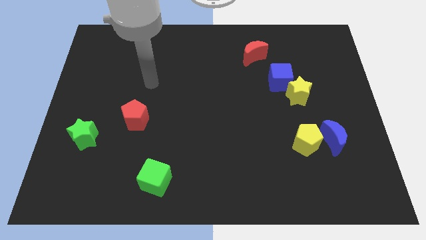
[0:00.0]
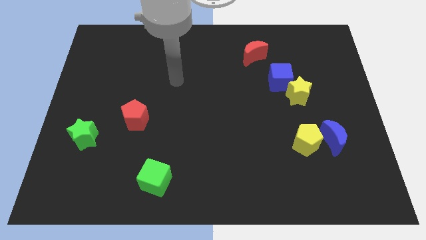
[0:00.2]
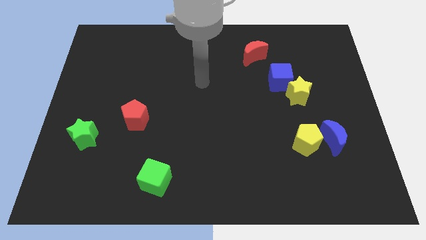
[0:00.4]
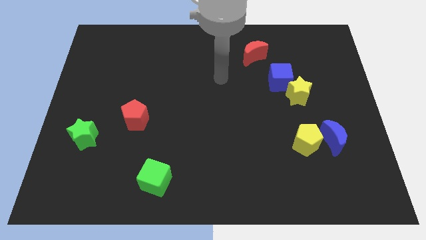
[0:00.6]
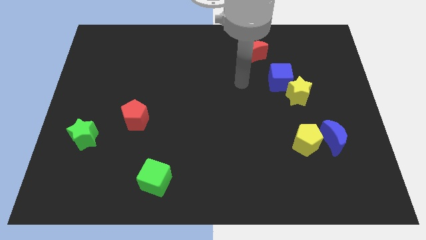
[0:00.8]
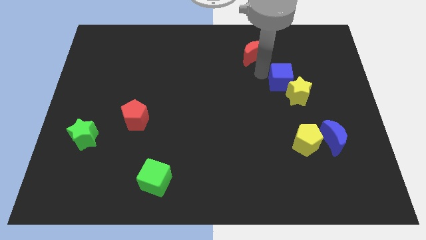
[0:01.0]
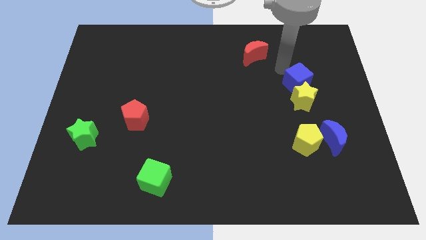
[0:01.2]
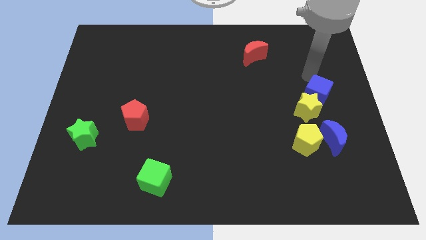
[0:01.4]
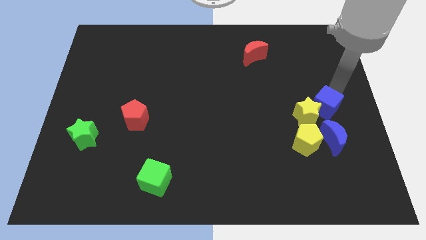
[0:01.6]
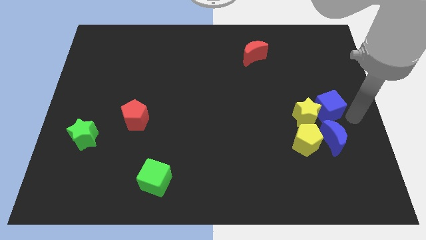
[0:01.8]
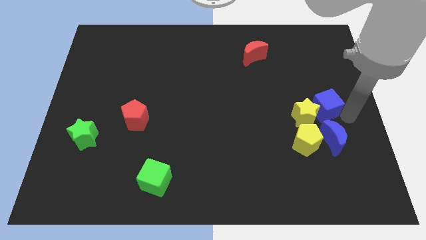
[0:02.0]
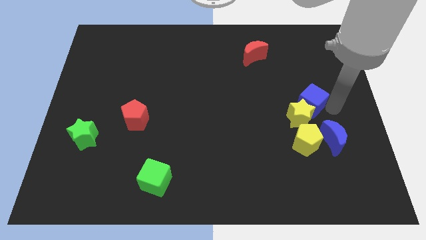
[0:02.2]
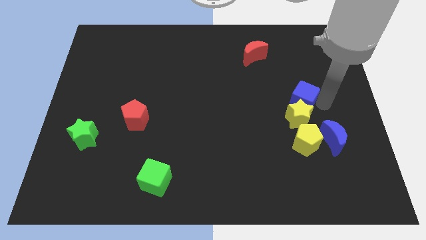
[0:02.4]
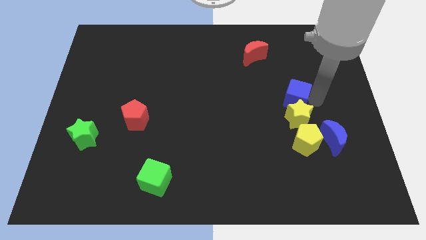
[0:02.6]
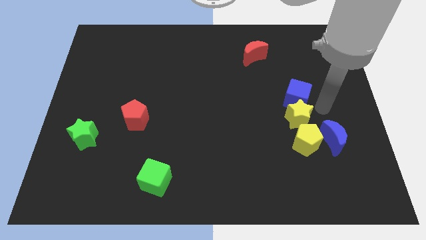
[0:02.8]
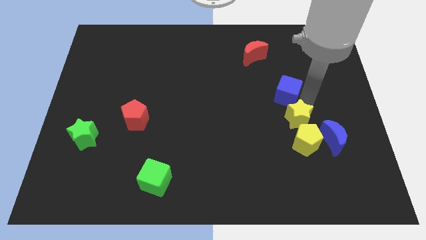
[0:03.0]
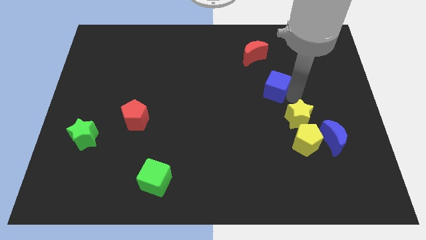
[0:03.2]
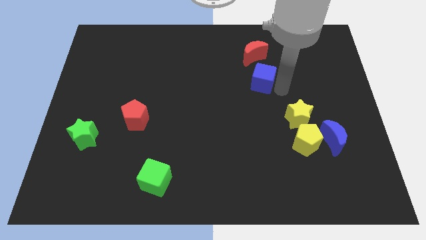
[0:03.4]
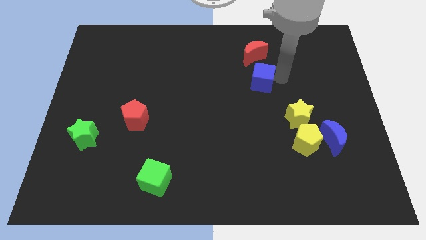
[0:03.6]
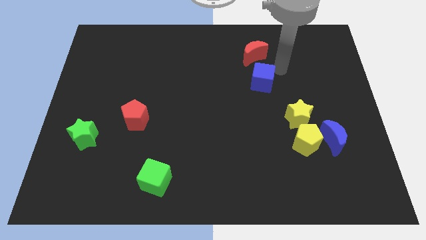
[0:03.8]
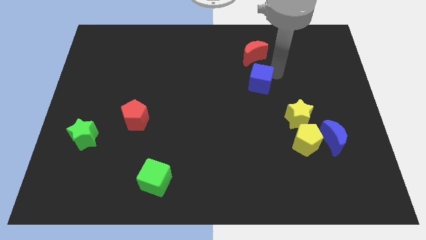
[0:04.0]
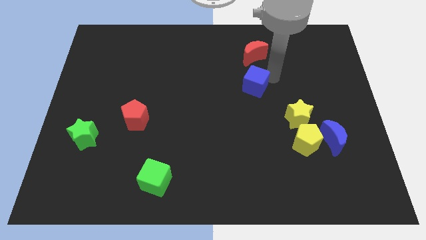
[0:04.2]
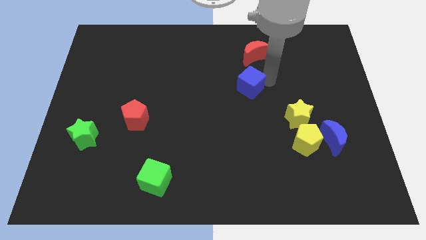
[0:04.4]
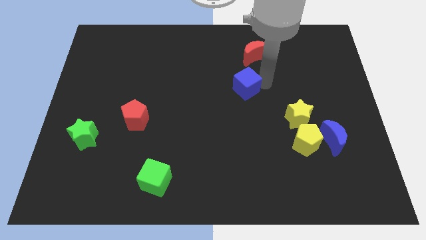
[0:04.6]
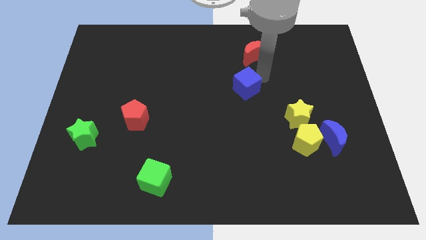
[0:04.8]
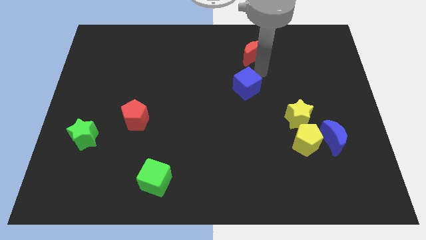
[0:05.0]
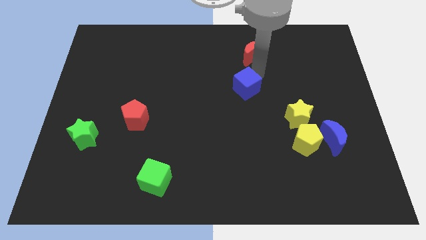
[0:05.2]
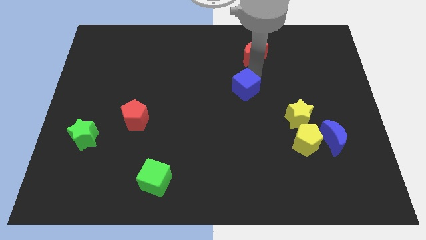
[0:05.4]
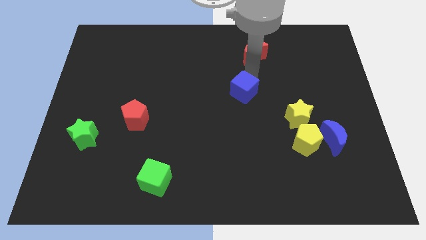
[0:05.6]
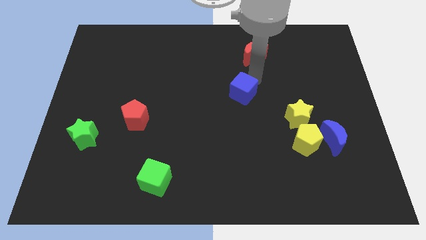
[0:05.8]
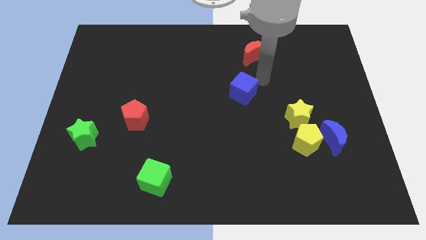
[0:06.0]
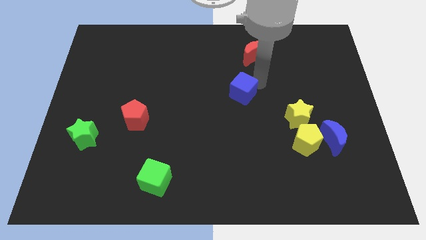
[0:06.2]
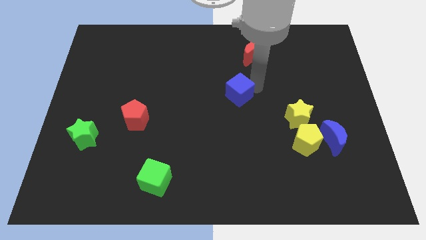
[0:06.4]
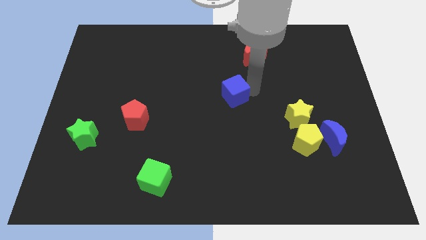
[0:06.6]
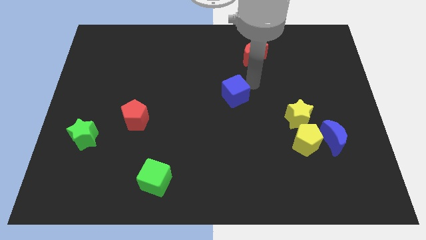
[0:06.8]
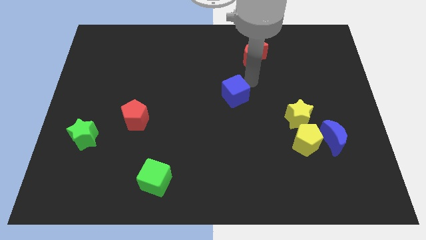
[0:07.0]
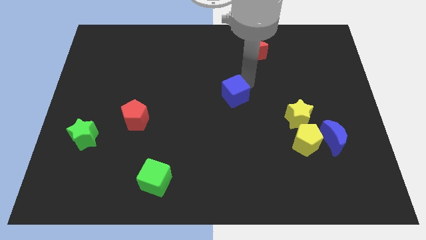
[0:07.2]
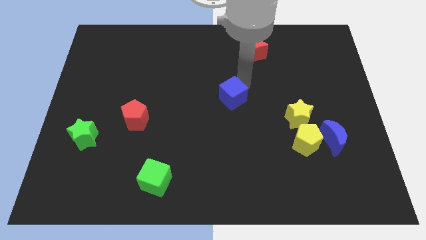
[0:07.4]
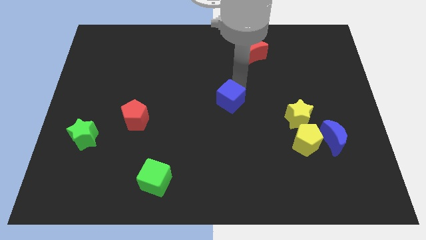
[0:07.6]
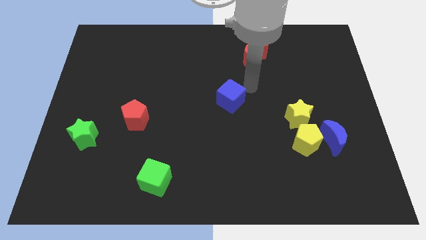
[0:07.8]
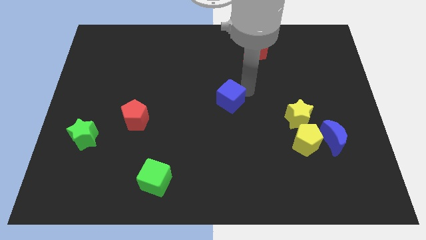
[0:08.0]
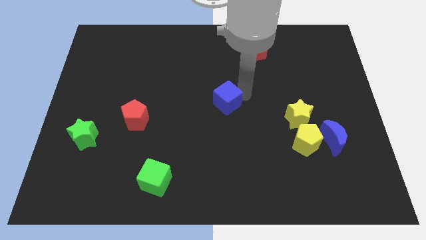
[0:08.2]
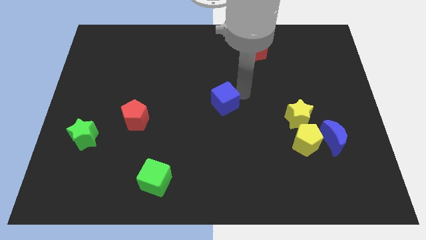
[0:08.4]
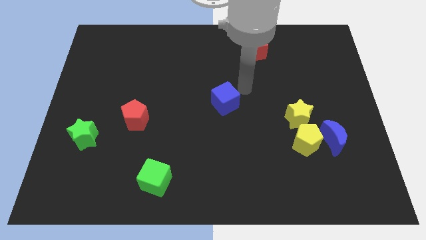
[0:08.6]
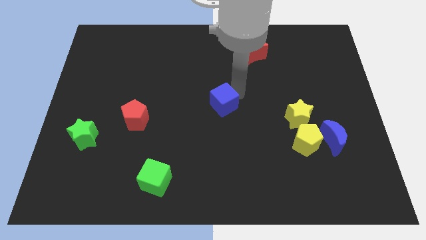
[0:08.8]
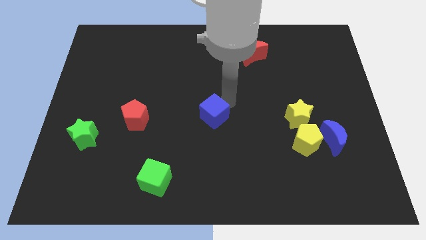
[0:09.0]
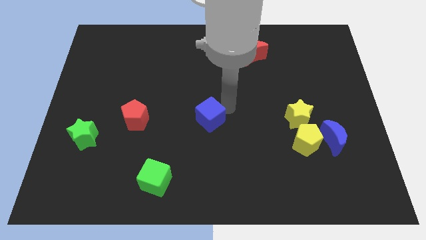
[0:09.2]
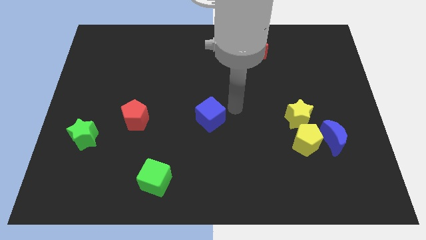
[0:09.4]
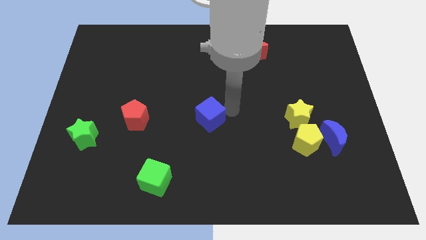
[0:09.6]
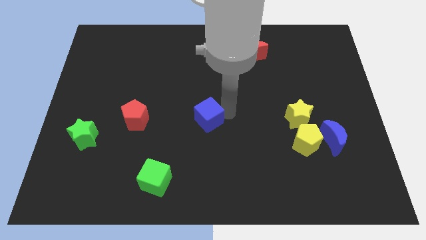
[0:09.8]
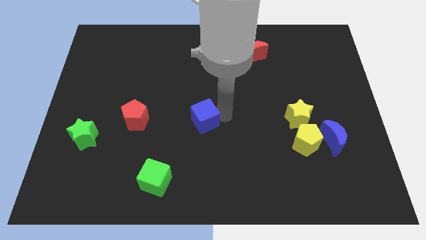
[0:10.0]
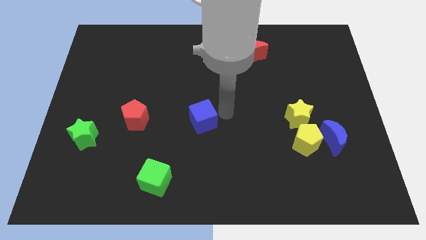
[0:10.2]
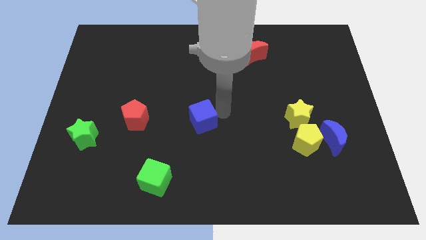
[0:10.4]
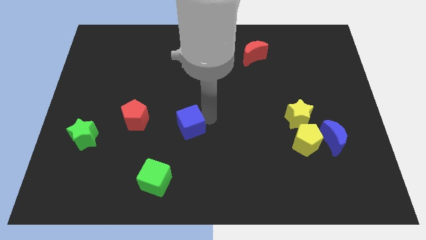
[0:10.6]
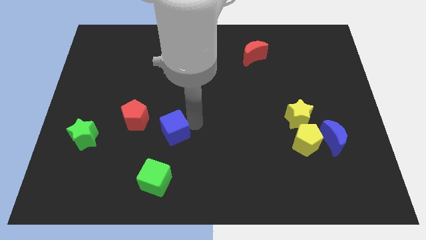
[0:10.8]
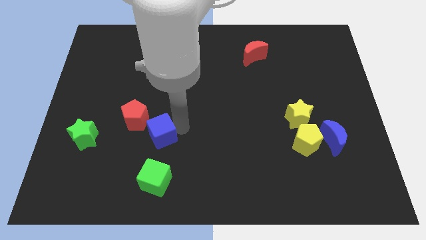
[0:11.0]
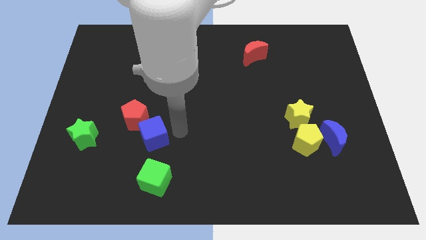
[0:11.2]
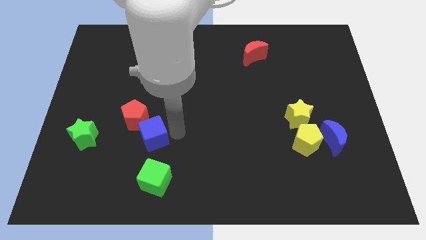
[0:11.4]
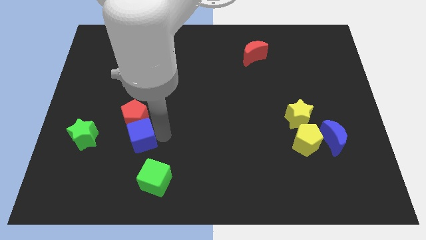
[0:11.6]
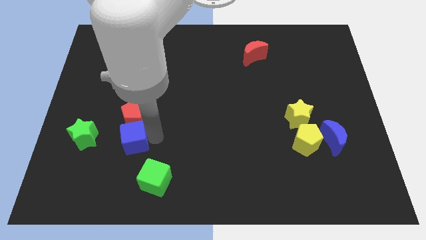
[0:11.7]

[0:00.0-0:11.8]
put the blue cube diagonally down and to the left of the red pentagon

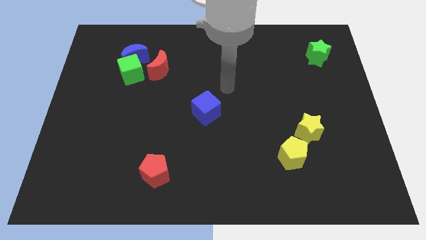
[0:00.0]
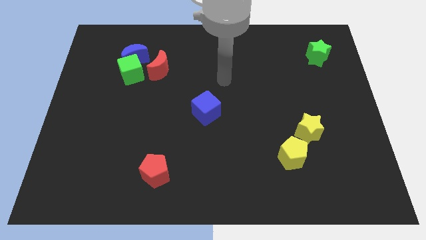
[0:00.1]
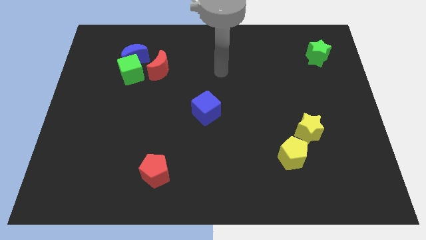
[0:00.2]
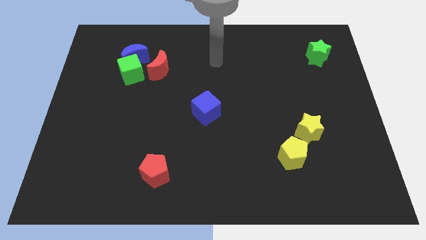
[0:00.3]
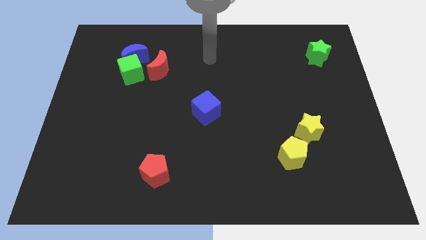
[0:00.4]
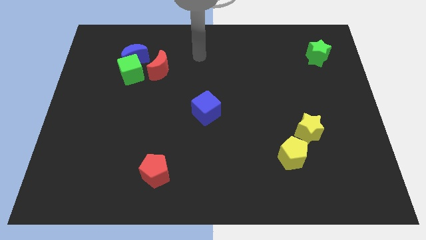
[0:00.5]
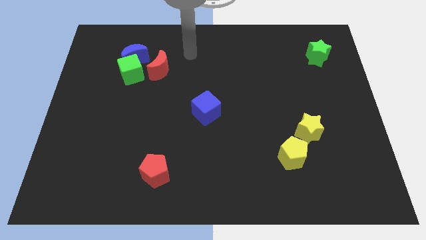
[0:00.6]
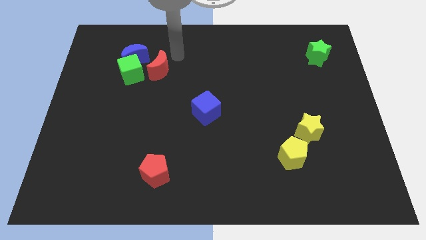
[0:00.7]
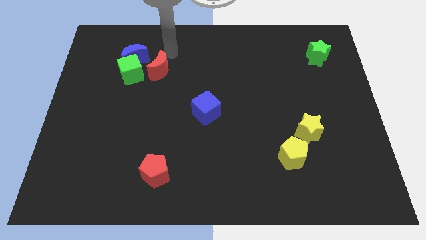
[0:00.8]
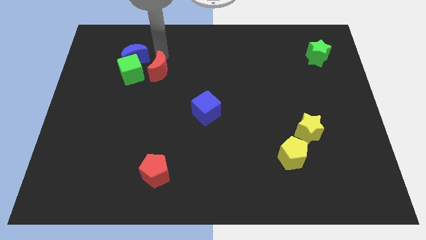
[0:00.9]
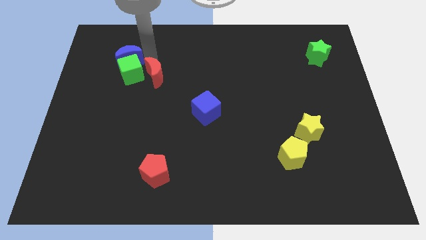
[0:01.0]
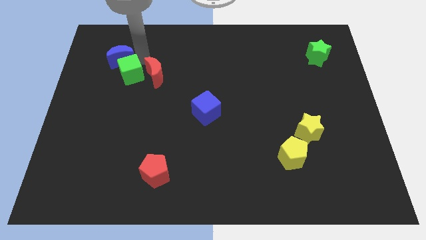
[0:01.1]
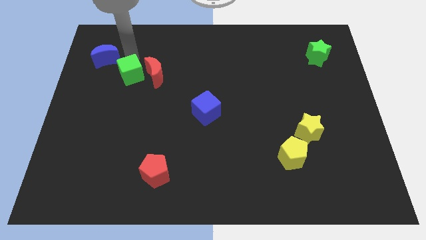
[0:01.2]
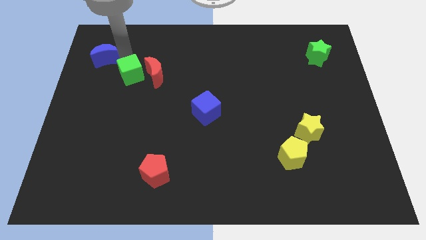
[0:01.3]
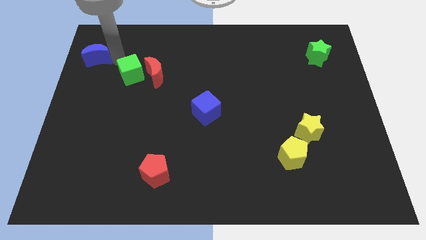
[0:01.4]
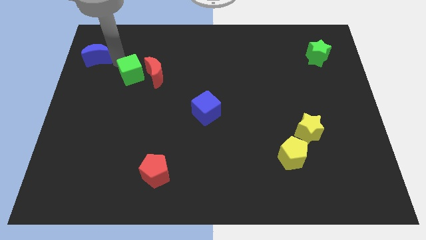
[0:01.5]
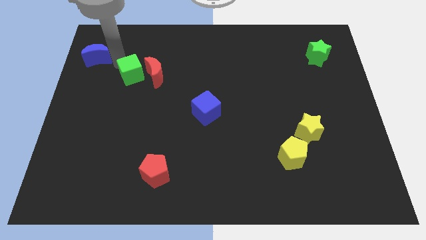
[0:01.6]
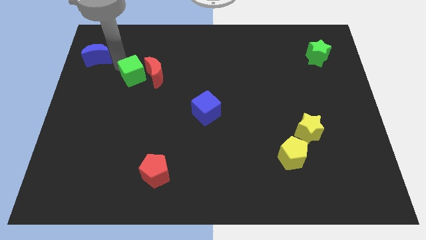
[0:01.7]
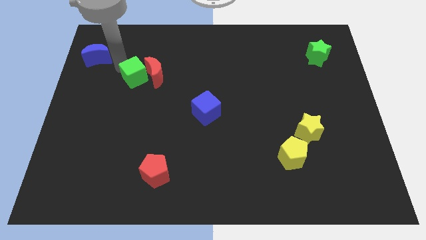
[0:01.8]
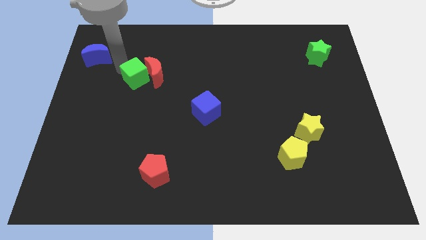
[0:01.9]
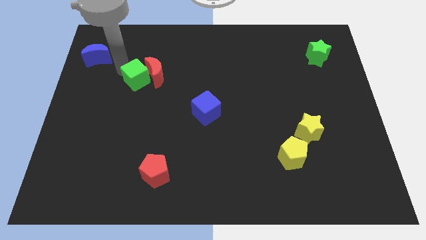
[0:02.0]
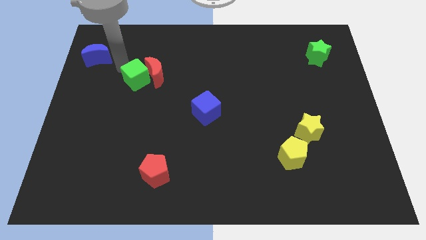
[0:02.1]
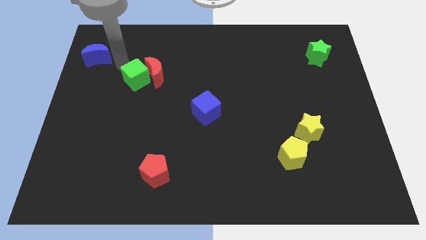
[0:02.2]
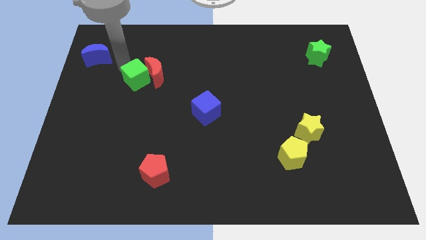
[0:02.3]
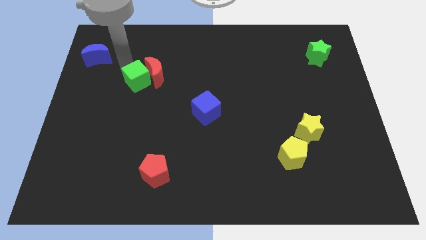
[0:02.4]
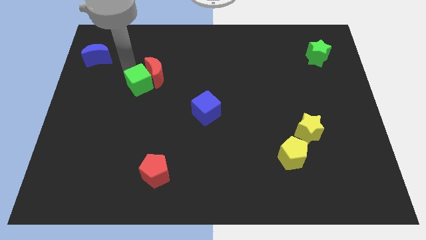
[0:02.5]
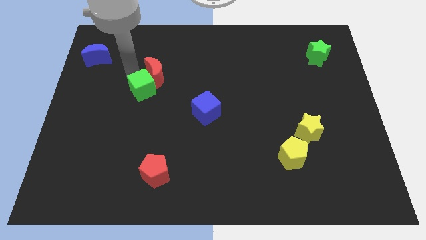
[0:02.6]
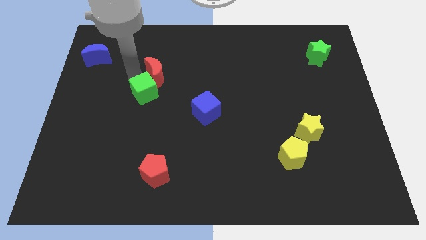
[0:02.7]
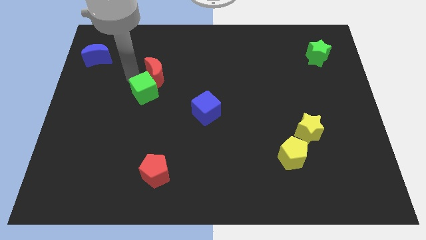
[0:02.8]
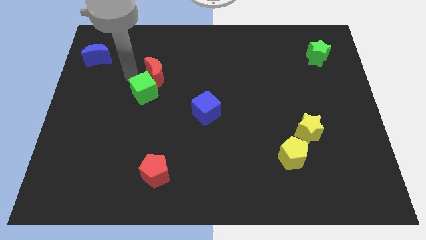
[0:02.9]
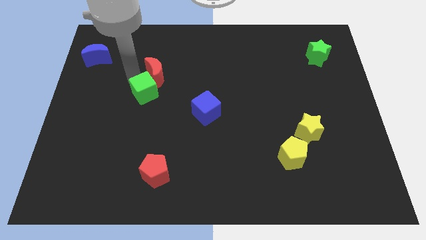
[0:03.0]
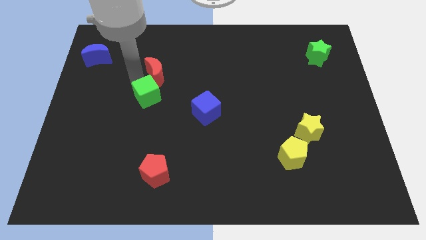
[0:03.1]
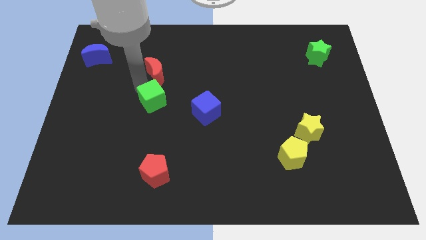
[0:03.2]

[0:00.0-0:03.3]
push the green cube left of the blue cube
